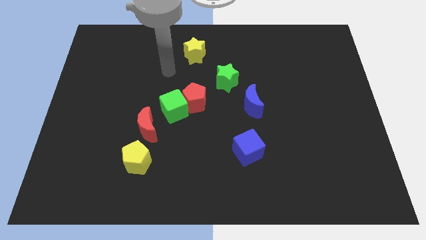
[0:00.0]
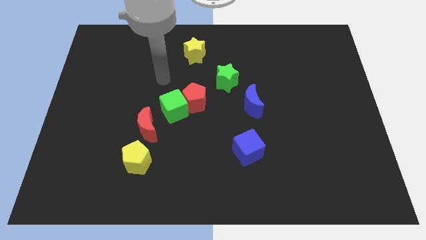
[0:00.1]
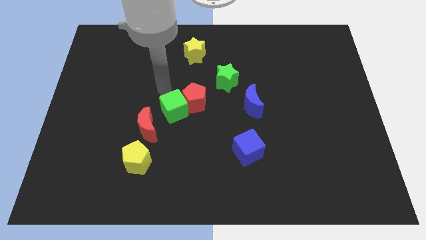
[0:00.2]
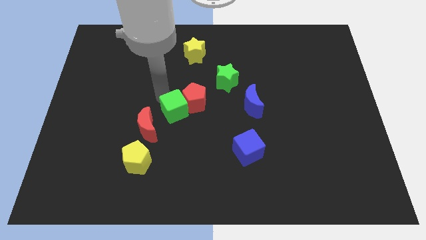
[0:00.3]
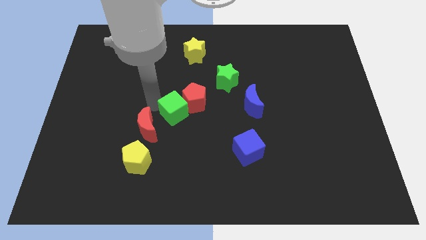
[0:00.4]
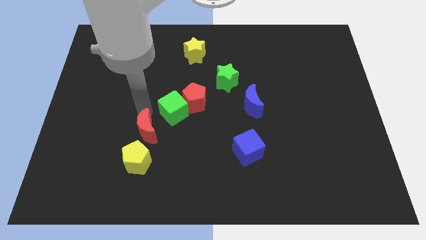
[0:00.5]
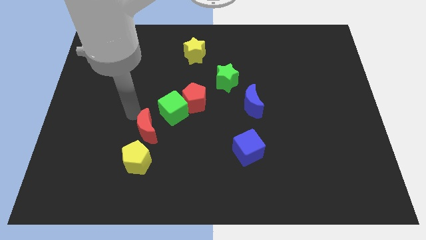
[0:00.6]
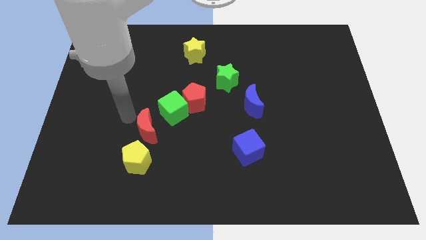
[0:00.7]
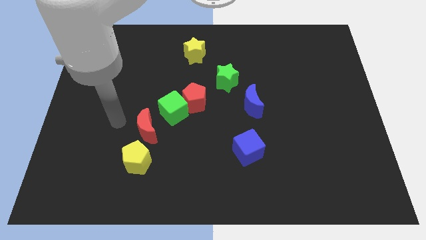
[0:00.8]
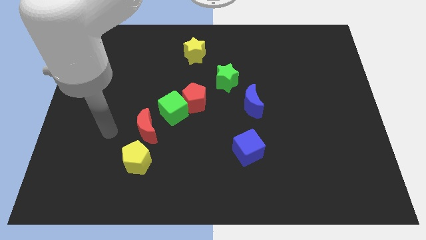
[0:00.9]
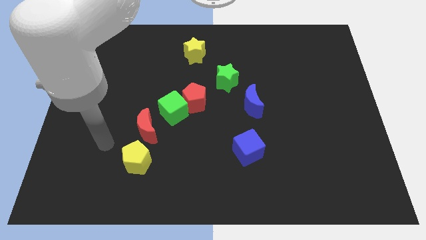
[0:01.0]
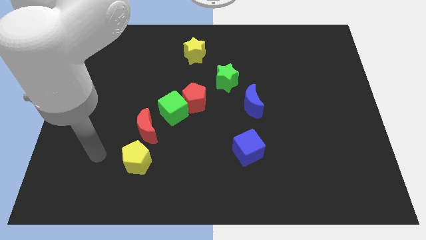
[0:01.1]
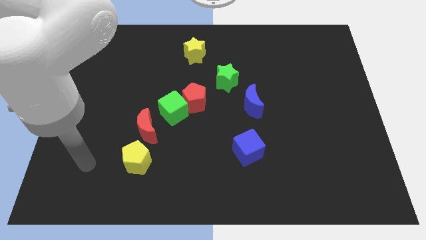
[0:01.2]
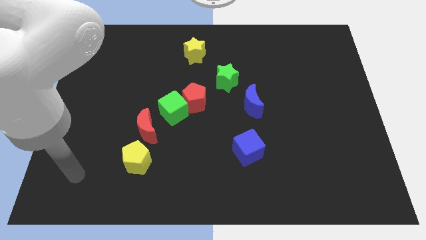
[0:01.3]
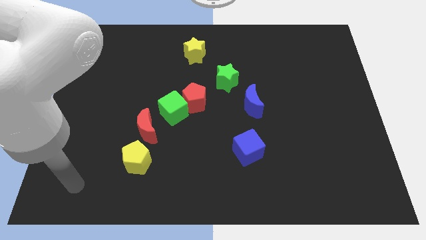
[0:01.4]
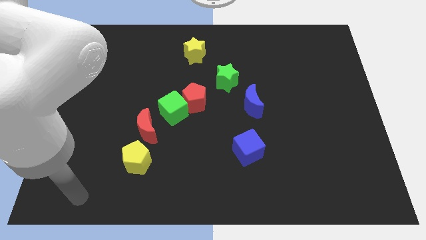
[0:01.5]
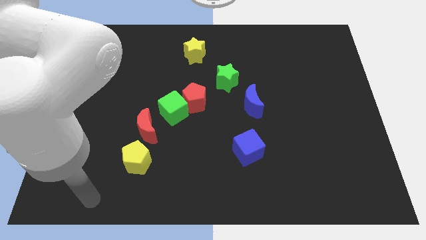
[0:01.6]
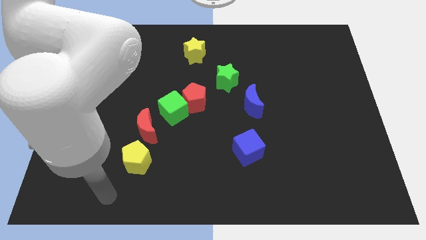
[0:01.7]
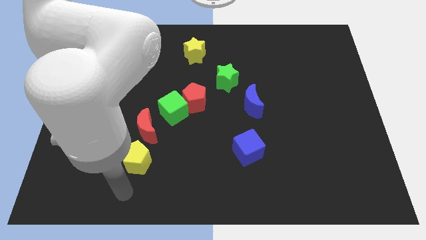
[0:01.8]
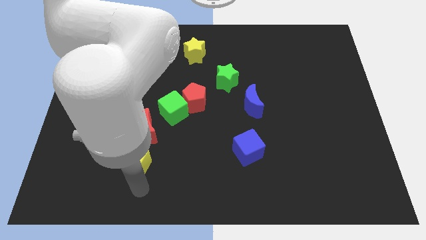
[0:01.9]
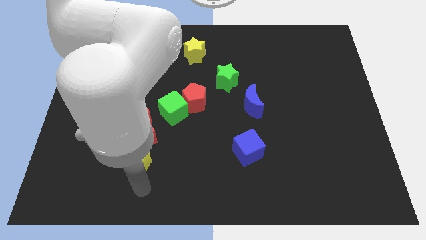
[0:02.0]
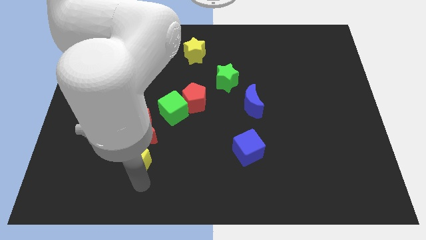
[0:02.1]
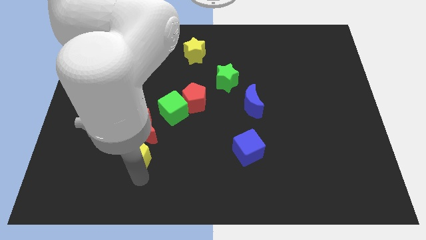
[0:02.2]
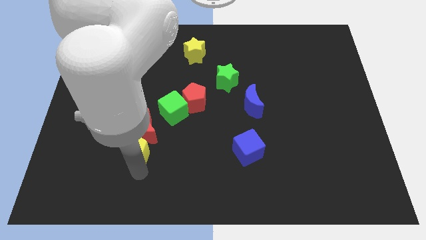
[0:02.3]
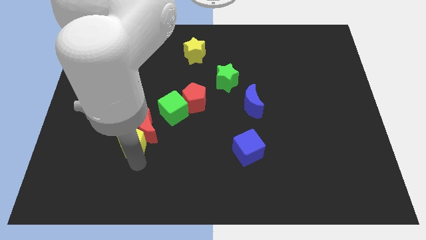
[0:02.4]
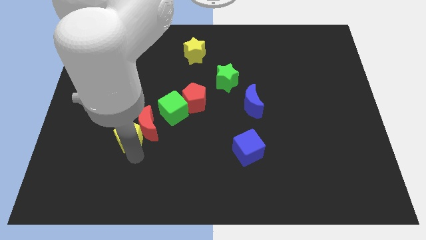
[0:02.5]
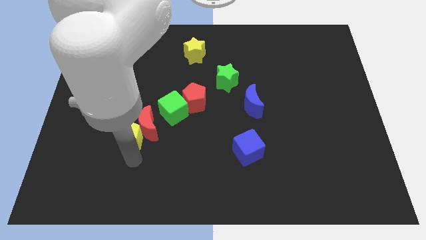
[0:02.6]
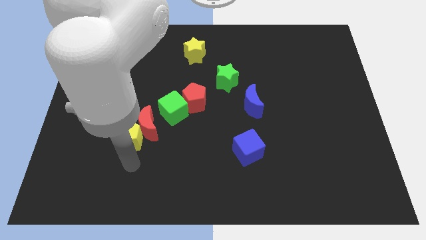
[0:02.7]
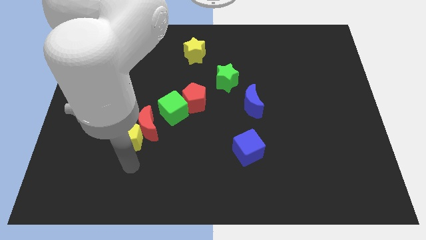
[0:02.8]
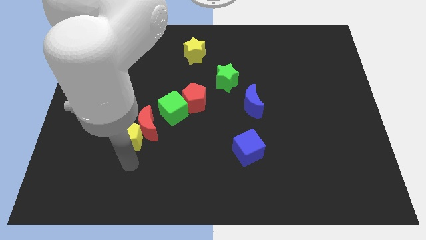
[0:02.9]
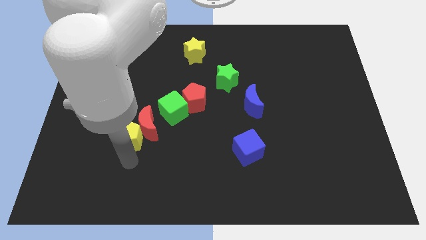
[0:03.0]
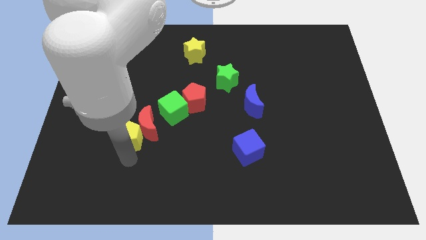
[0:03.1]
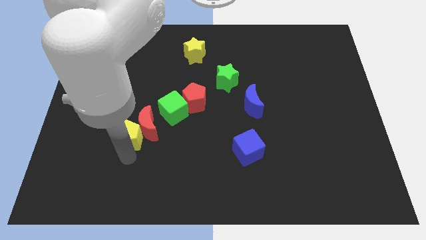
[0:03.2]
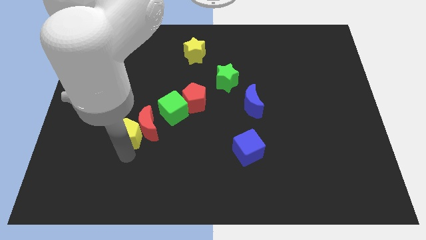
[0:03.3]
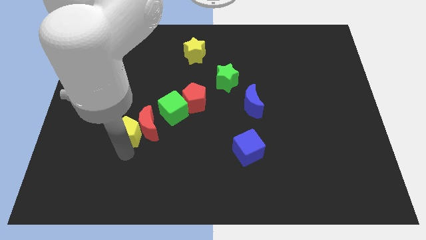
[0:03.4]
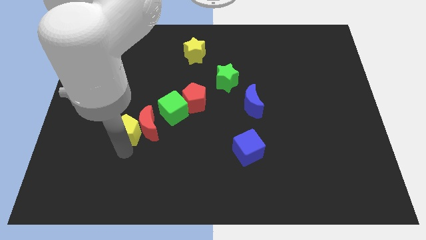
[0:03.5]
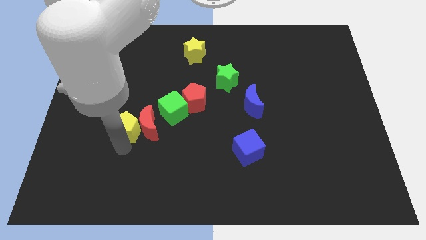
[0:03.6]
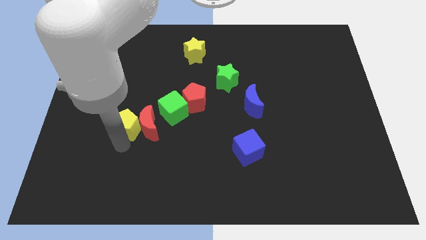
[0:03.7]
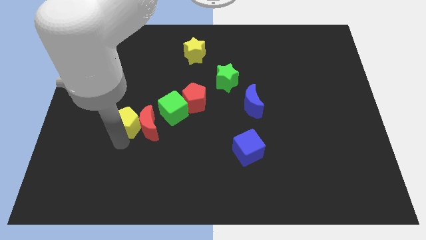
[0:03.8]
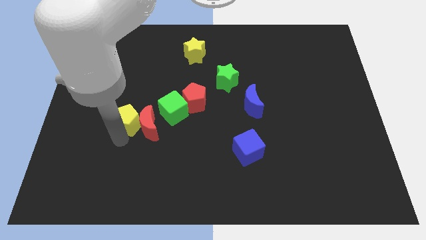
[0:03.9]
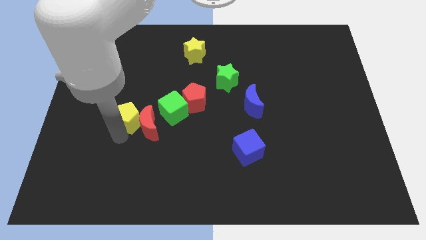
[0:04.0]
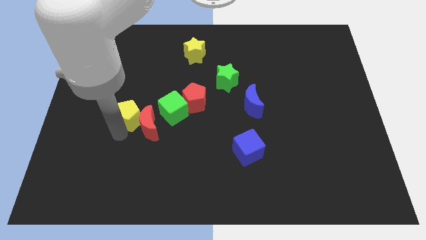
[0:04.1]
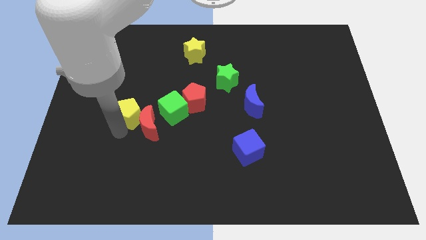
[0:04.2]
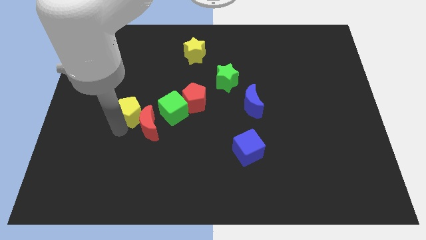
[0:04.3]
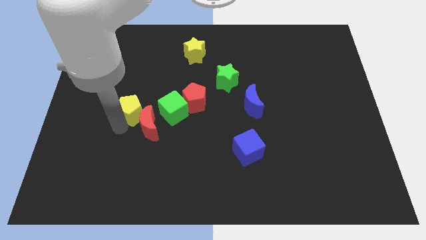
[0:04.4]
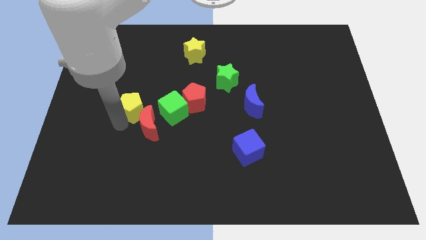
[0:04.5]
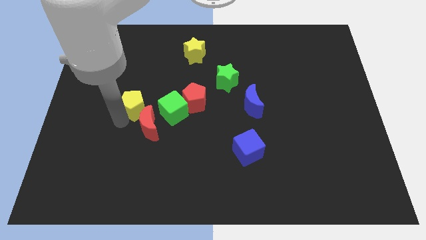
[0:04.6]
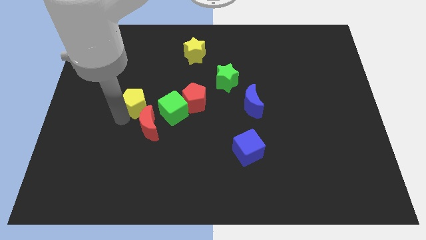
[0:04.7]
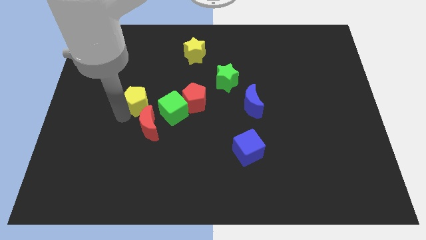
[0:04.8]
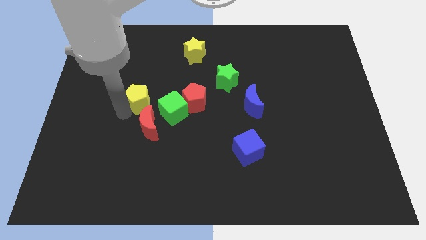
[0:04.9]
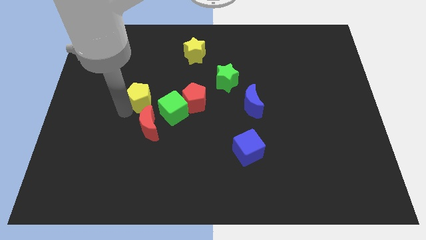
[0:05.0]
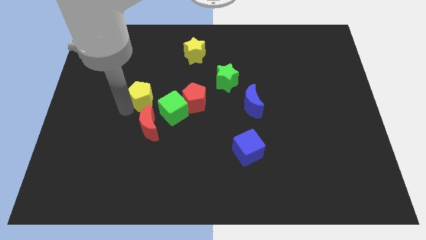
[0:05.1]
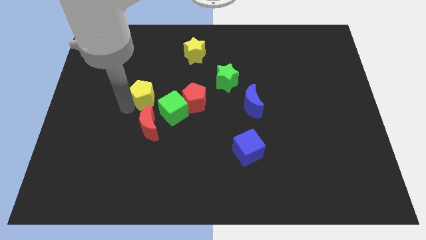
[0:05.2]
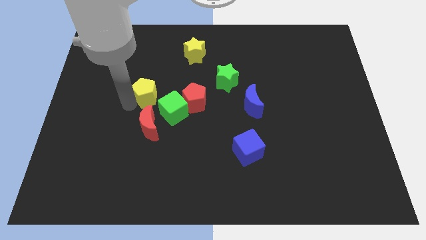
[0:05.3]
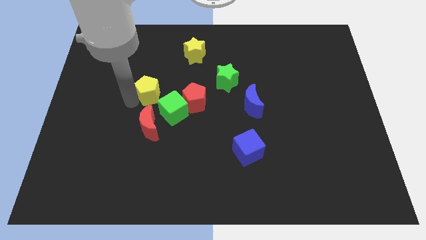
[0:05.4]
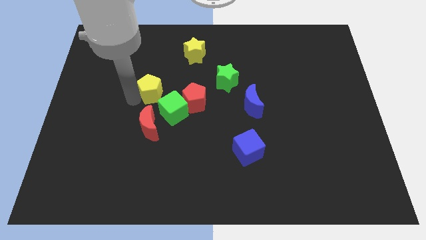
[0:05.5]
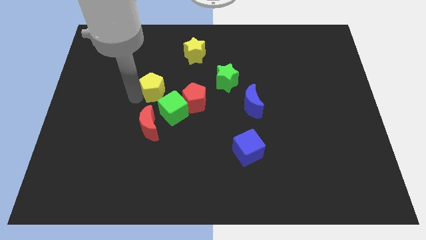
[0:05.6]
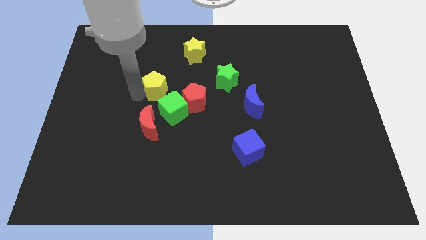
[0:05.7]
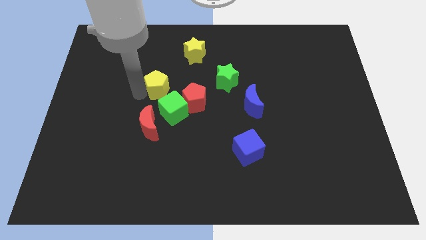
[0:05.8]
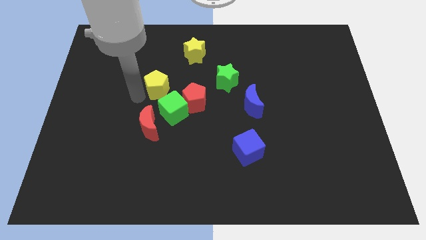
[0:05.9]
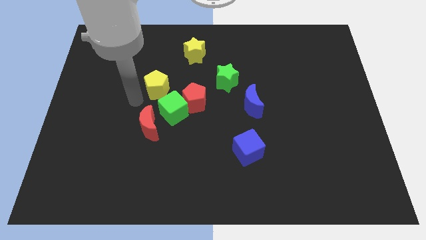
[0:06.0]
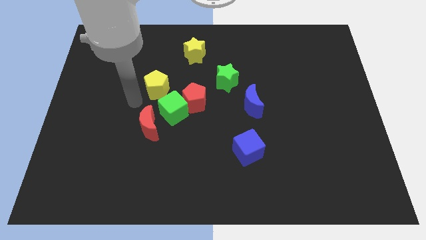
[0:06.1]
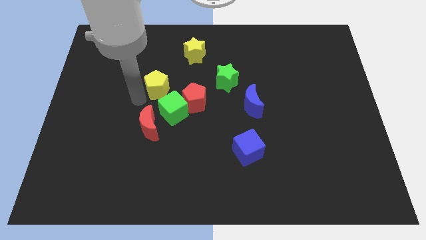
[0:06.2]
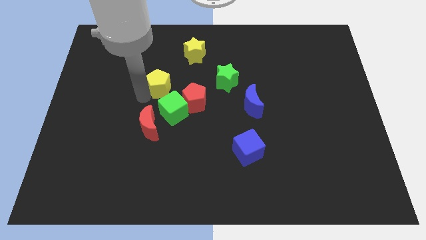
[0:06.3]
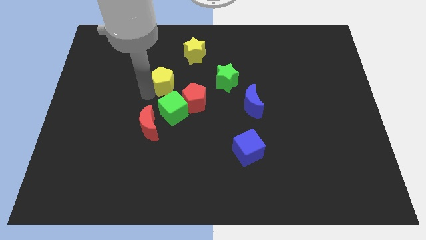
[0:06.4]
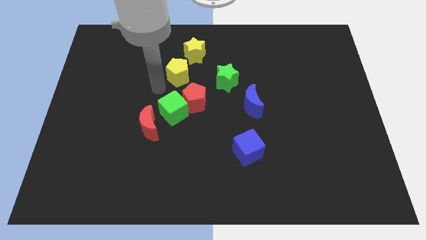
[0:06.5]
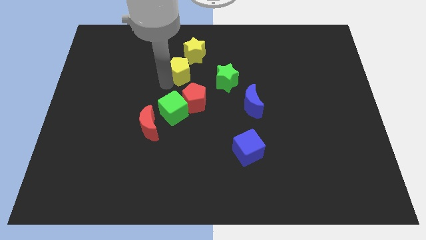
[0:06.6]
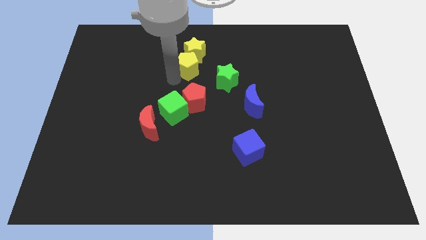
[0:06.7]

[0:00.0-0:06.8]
slide the yellow pentagon towards the yellow star

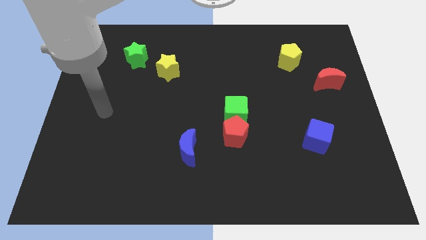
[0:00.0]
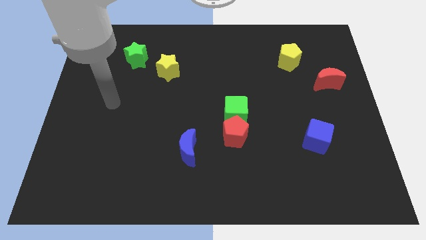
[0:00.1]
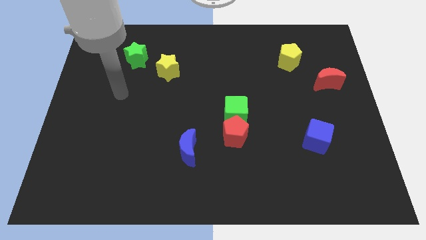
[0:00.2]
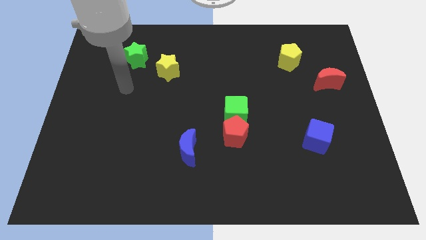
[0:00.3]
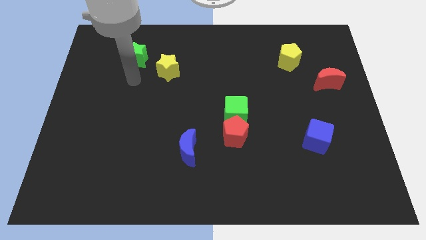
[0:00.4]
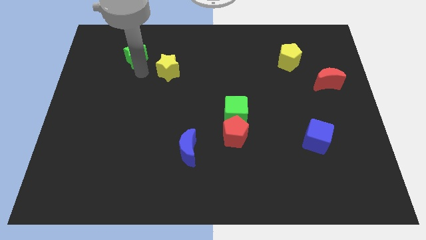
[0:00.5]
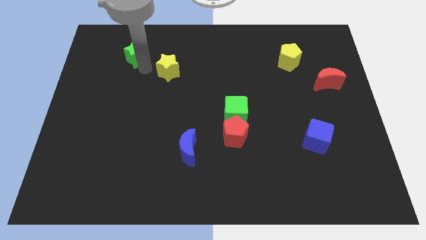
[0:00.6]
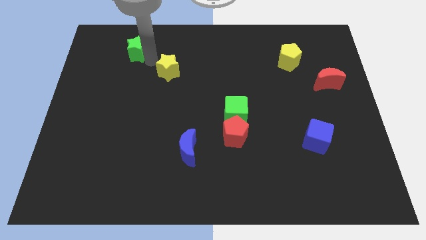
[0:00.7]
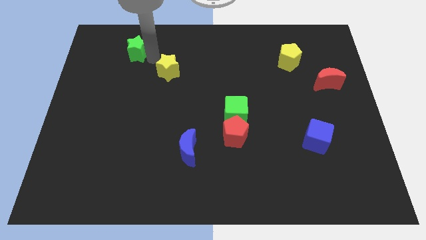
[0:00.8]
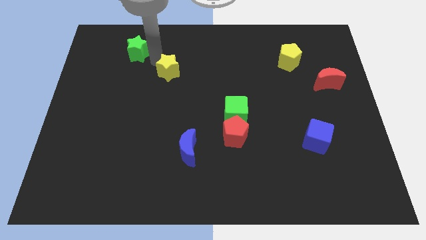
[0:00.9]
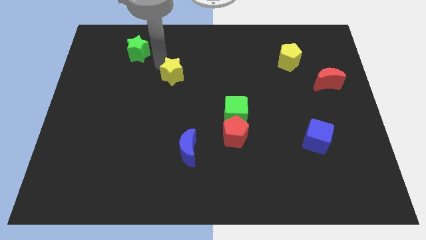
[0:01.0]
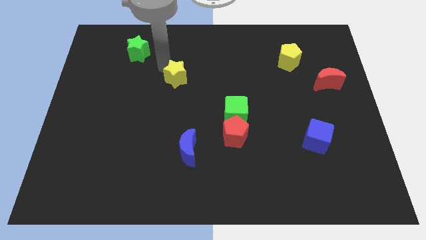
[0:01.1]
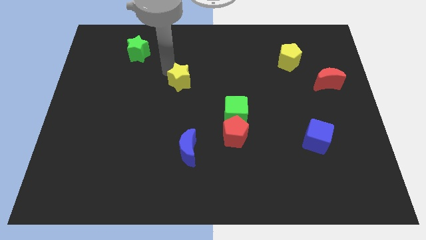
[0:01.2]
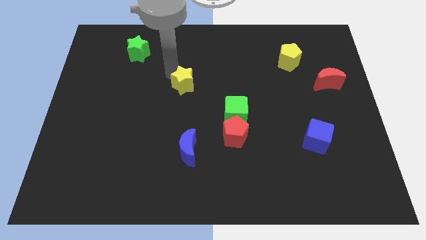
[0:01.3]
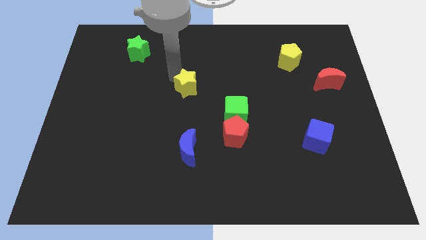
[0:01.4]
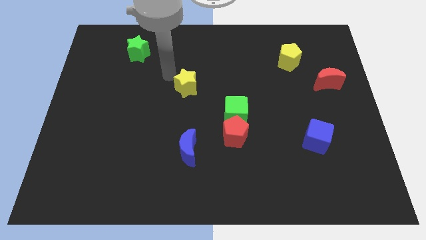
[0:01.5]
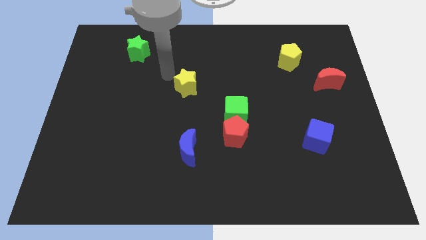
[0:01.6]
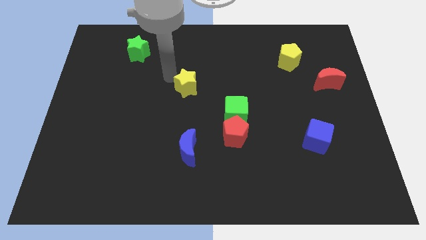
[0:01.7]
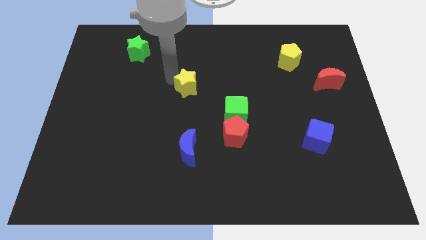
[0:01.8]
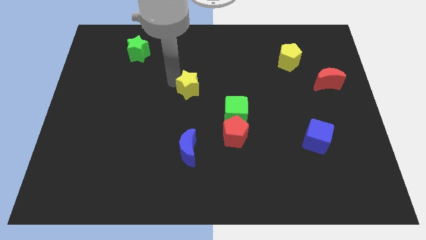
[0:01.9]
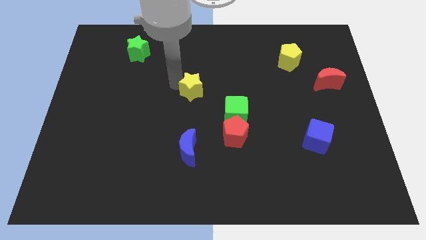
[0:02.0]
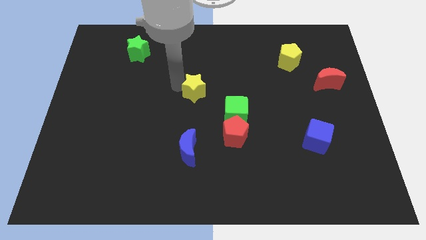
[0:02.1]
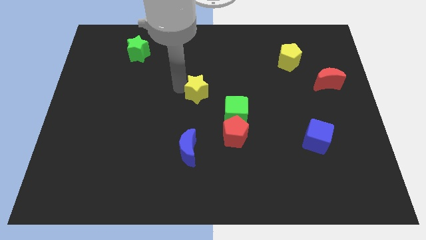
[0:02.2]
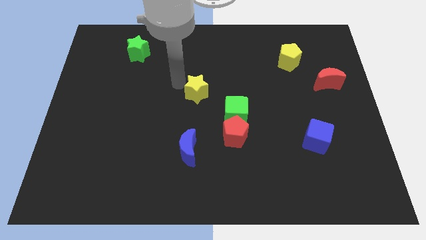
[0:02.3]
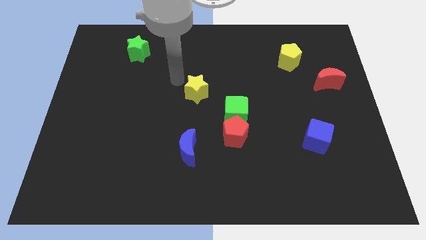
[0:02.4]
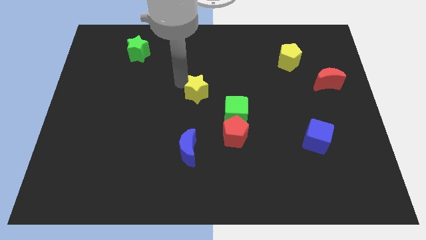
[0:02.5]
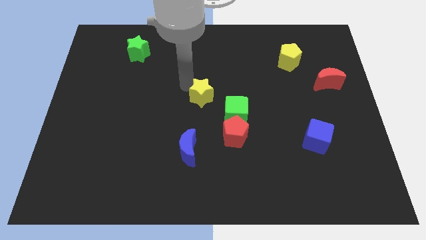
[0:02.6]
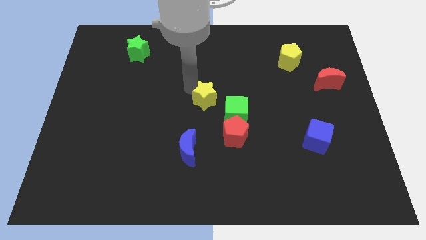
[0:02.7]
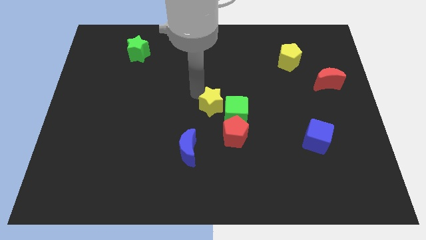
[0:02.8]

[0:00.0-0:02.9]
move the yellow star to the green cube
